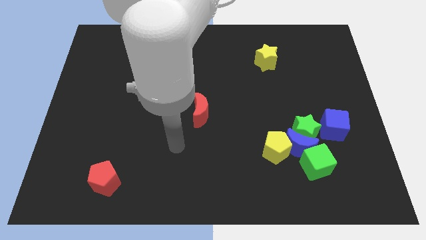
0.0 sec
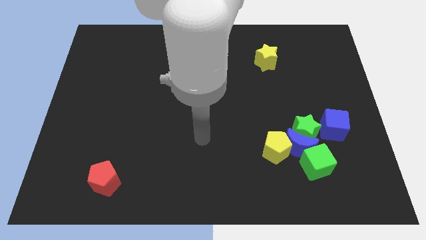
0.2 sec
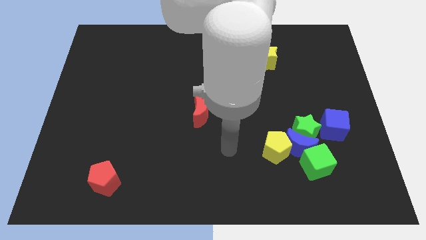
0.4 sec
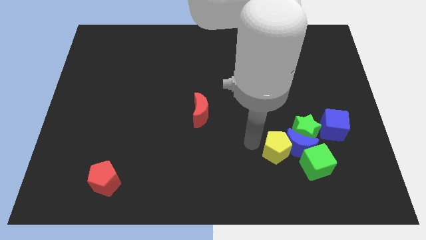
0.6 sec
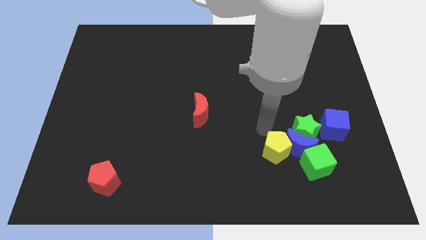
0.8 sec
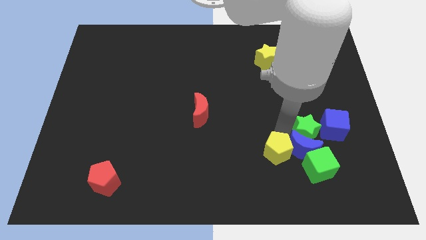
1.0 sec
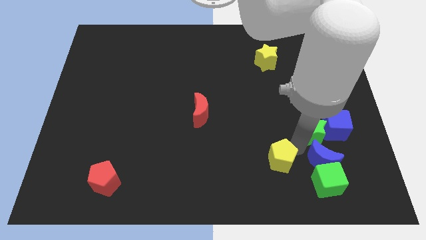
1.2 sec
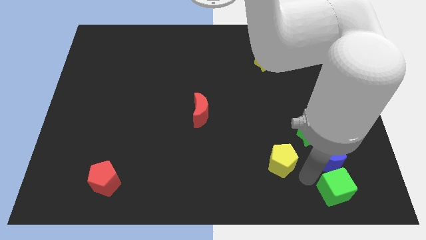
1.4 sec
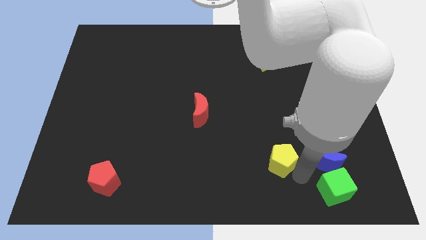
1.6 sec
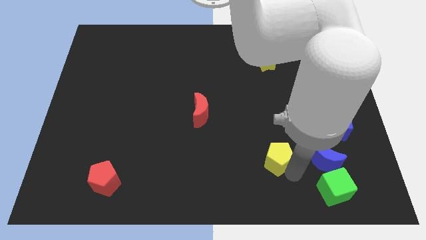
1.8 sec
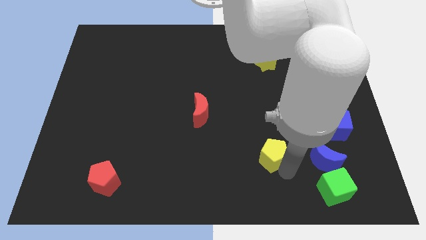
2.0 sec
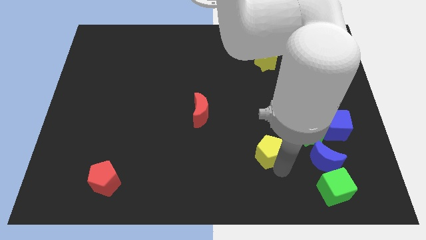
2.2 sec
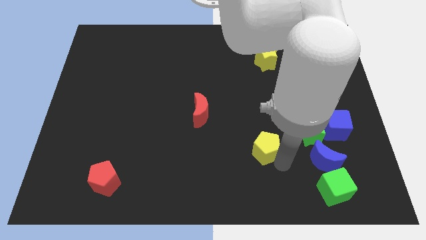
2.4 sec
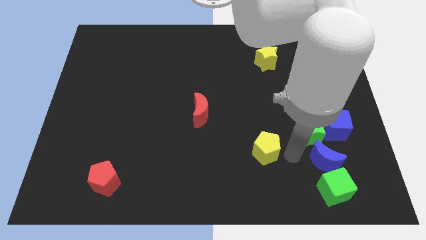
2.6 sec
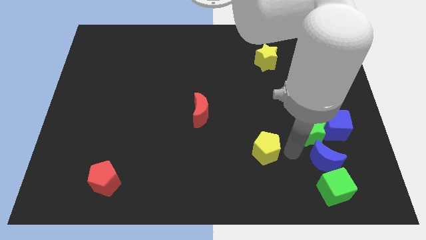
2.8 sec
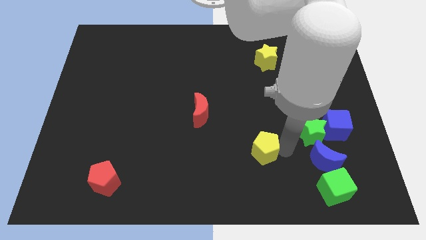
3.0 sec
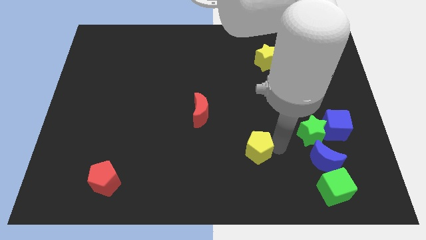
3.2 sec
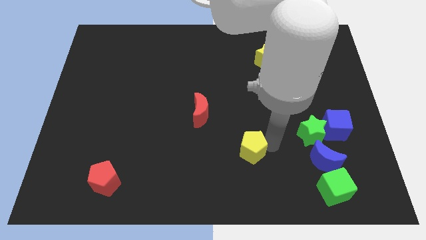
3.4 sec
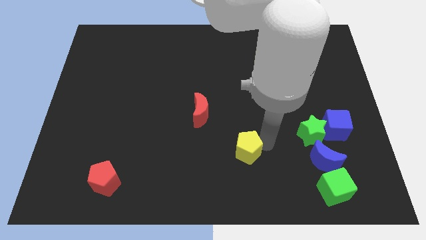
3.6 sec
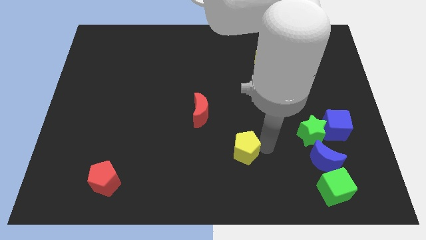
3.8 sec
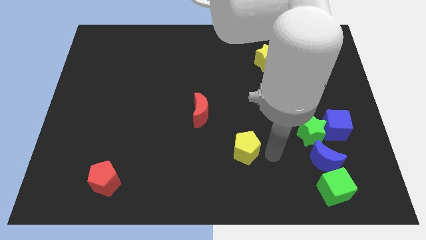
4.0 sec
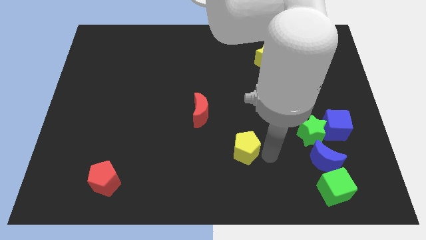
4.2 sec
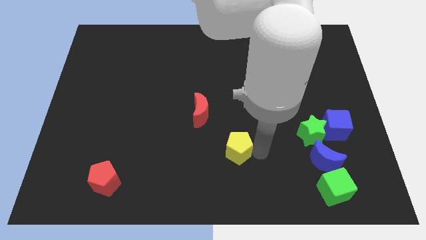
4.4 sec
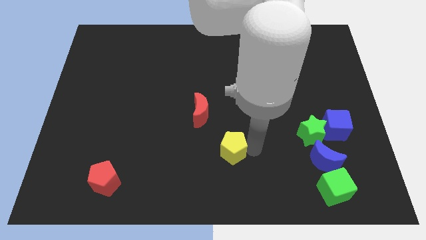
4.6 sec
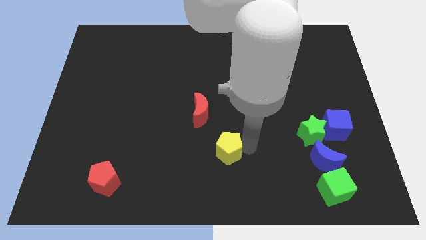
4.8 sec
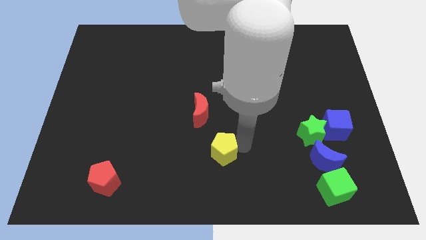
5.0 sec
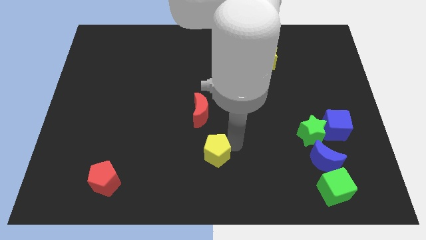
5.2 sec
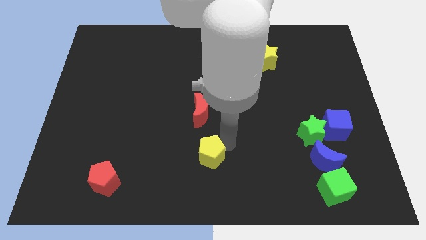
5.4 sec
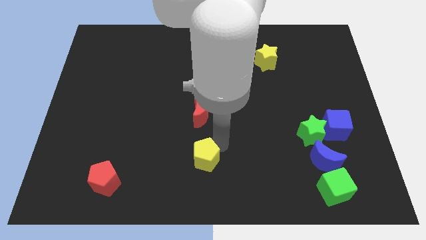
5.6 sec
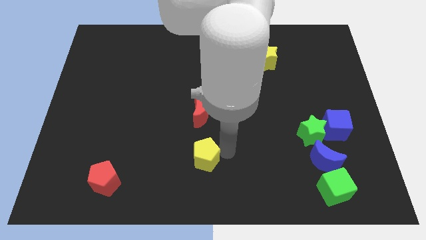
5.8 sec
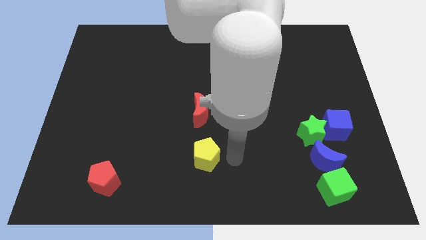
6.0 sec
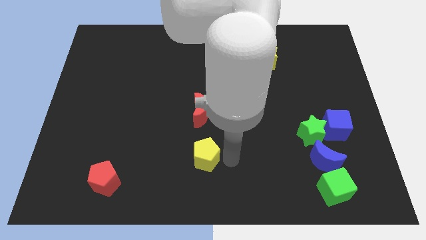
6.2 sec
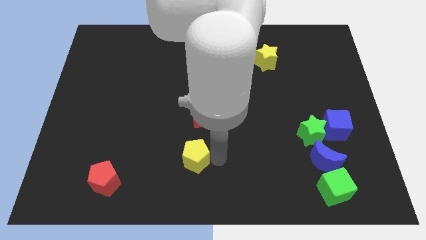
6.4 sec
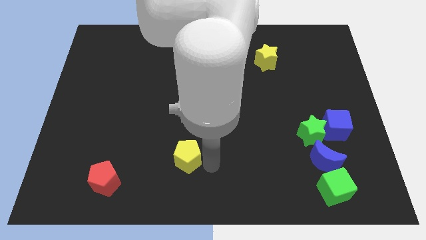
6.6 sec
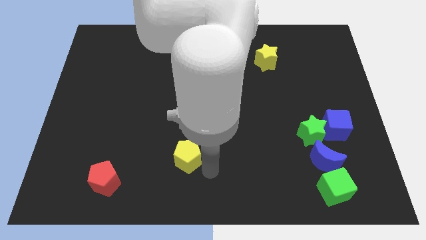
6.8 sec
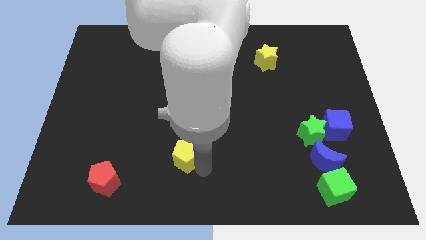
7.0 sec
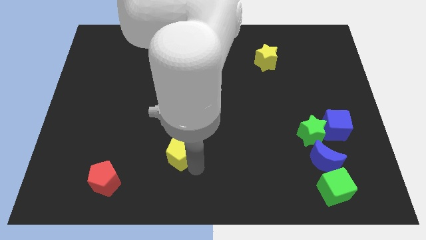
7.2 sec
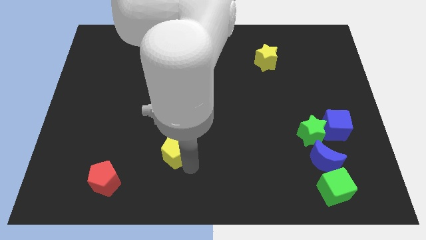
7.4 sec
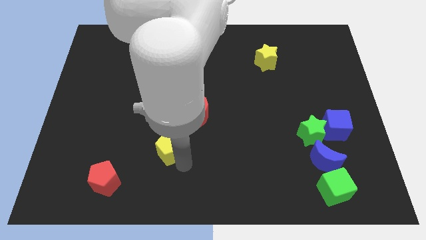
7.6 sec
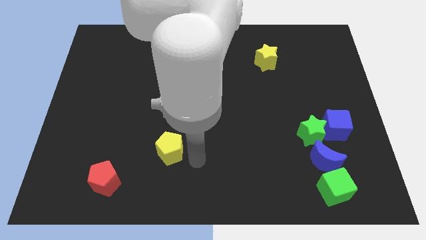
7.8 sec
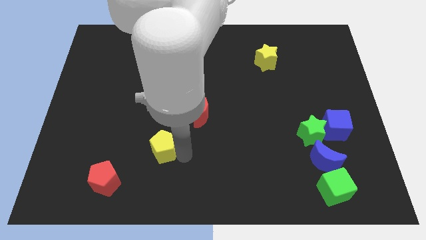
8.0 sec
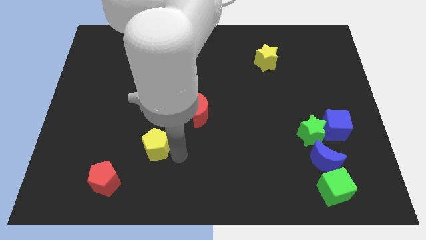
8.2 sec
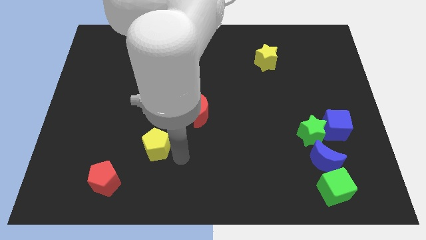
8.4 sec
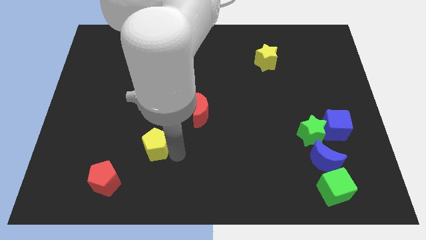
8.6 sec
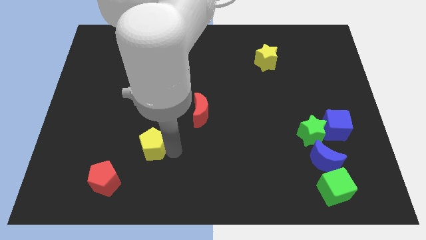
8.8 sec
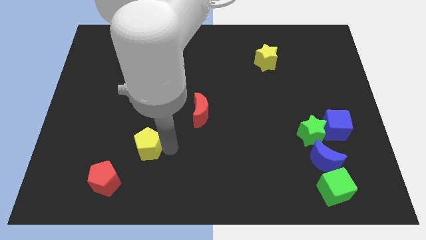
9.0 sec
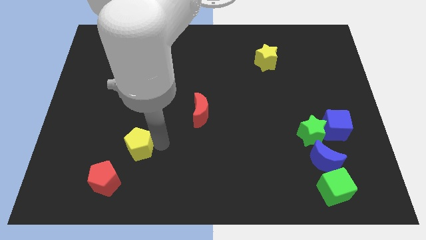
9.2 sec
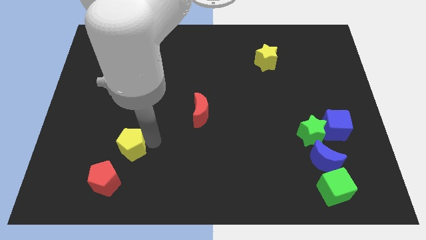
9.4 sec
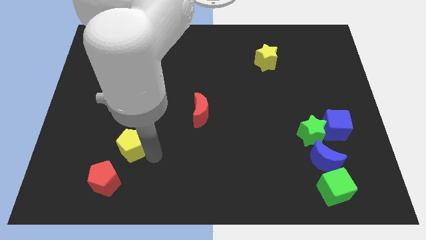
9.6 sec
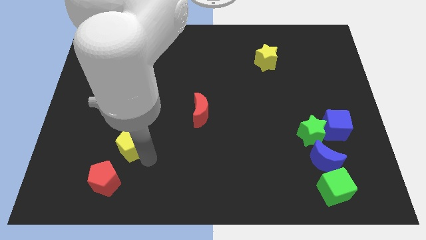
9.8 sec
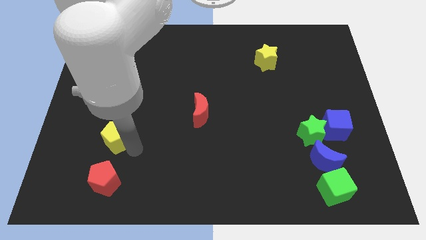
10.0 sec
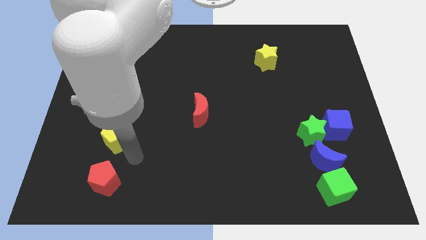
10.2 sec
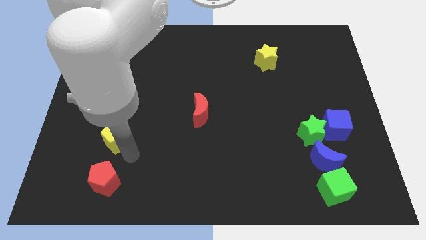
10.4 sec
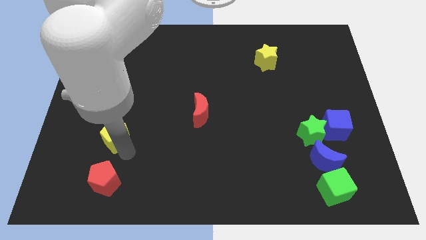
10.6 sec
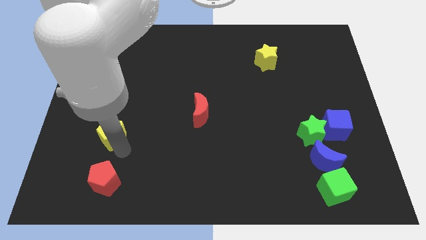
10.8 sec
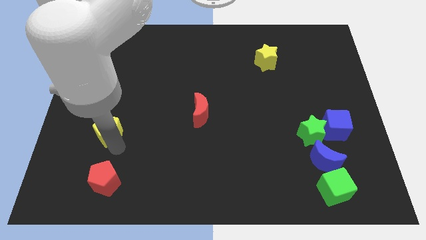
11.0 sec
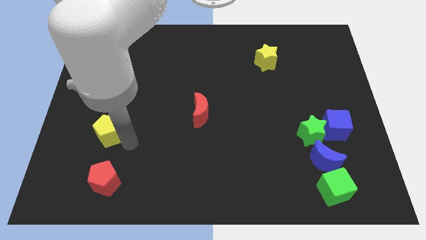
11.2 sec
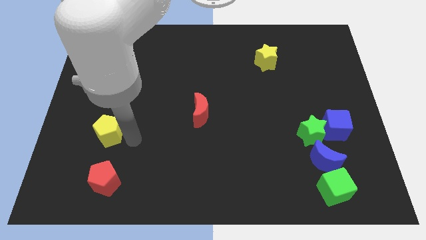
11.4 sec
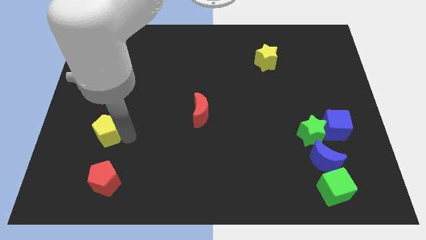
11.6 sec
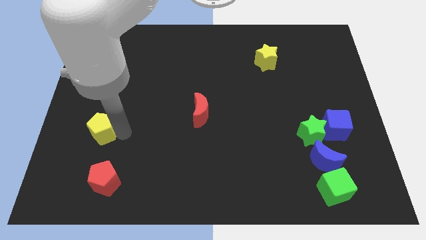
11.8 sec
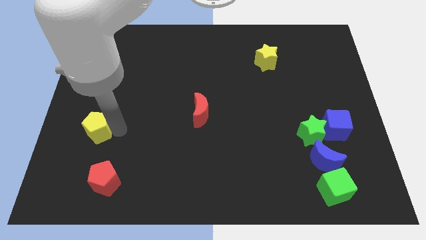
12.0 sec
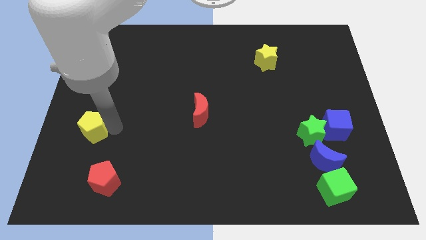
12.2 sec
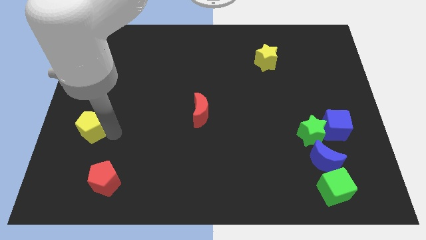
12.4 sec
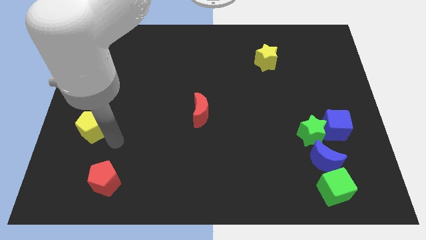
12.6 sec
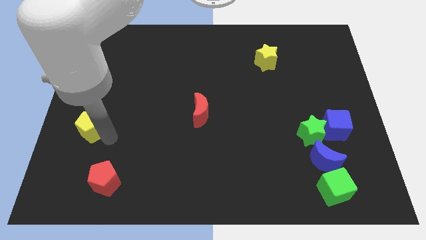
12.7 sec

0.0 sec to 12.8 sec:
move the yellow pentagon to the left side

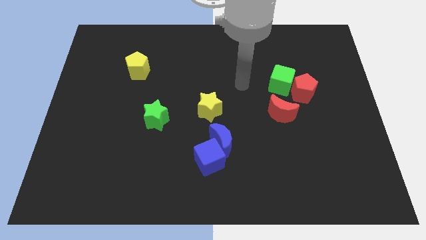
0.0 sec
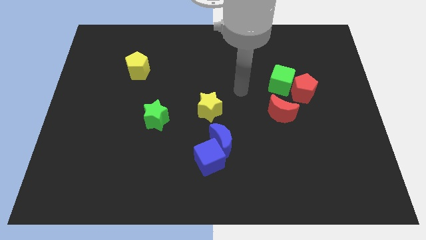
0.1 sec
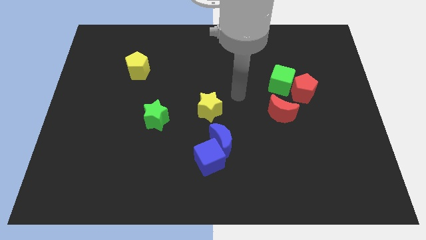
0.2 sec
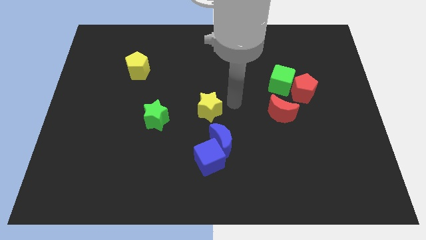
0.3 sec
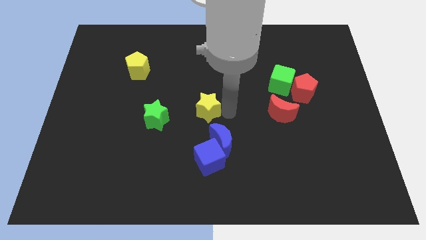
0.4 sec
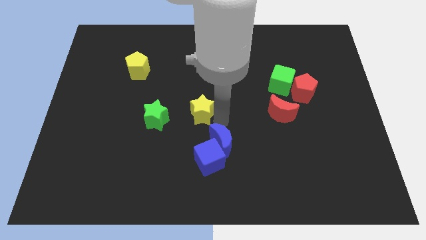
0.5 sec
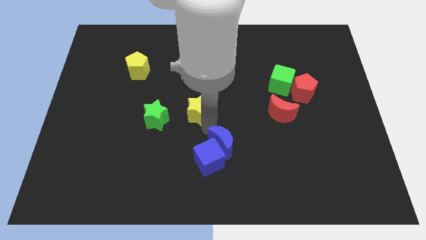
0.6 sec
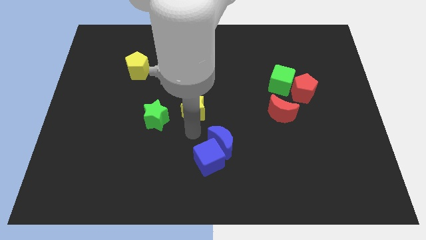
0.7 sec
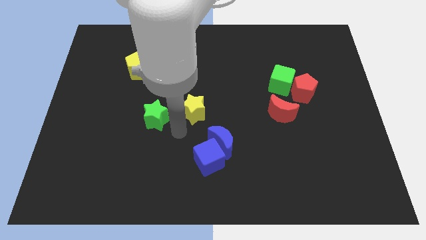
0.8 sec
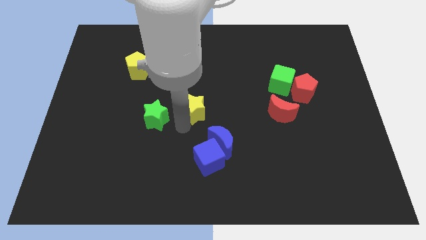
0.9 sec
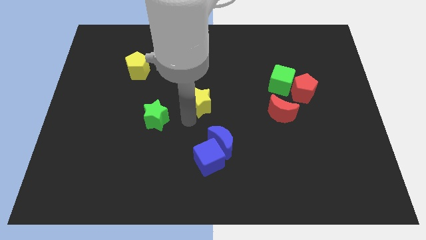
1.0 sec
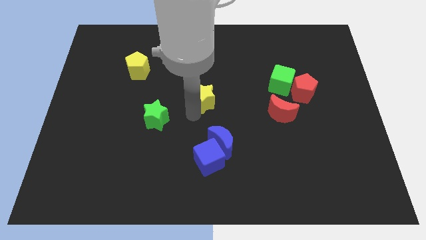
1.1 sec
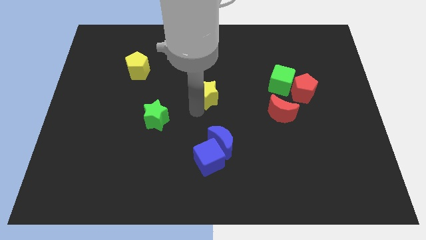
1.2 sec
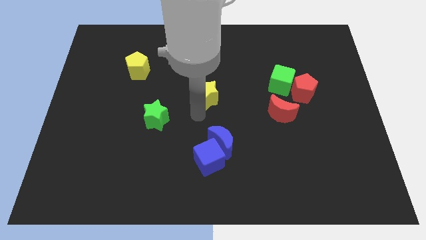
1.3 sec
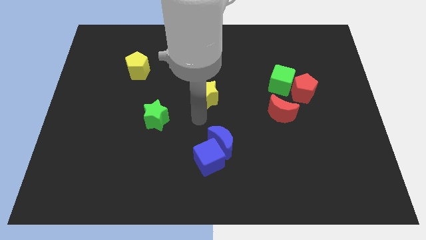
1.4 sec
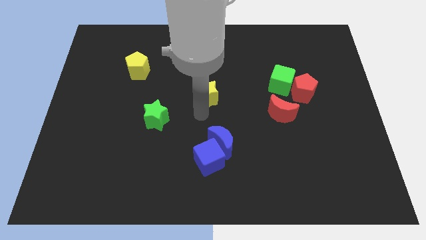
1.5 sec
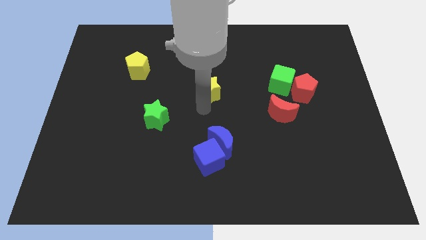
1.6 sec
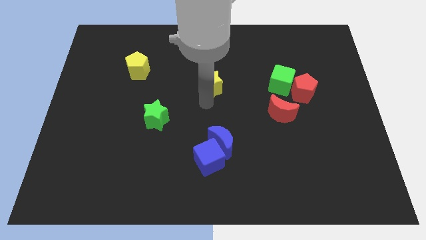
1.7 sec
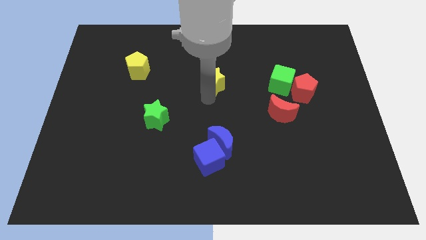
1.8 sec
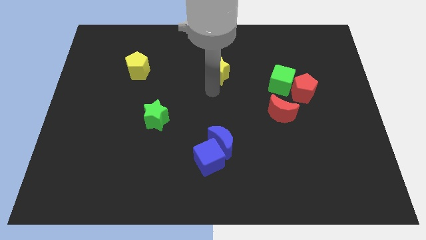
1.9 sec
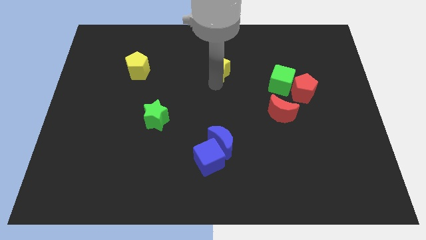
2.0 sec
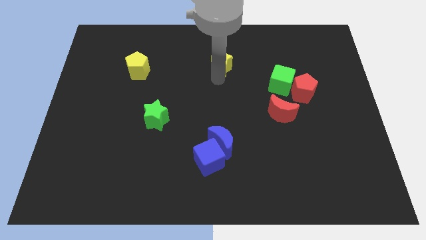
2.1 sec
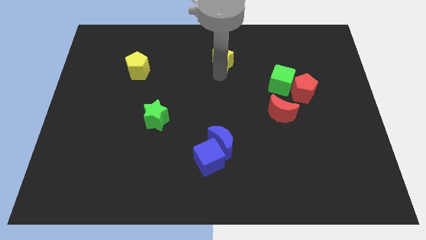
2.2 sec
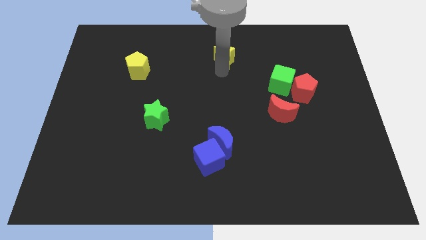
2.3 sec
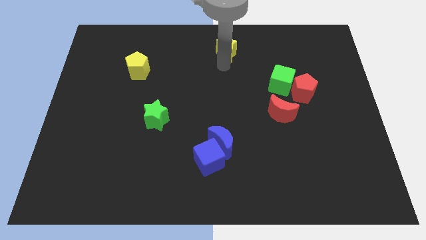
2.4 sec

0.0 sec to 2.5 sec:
slide the yellow star to the top side
